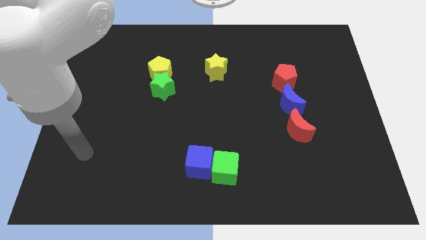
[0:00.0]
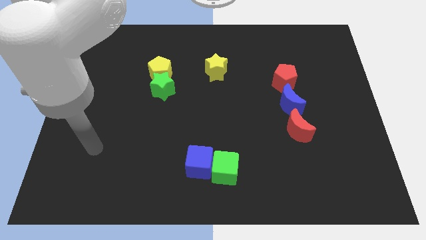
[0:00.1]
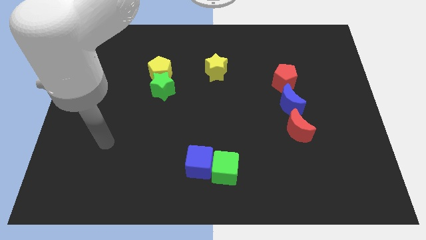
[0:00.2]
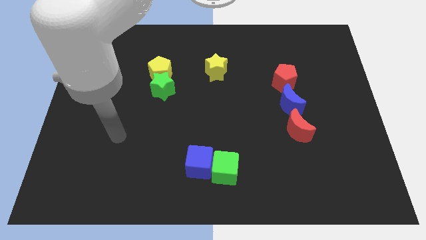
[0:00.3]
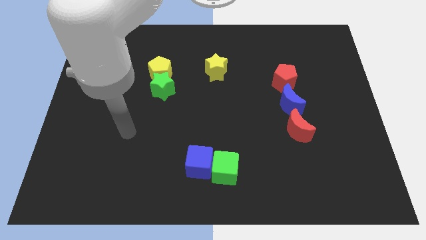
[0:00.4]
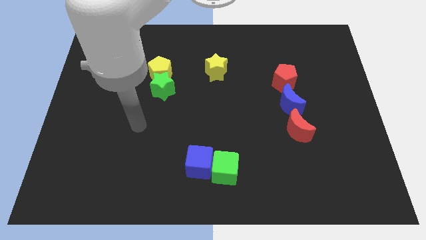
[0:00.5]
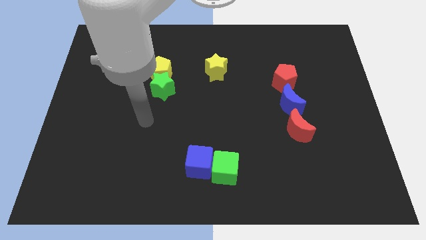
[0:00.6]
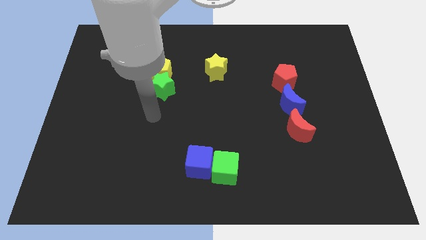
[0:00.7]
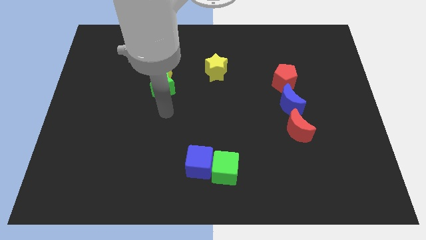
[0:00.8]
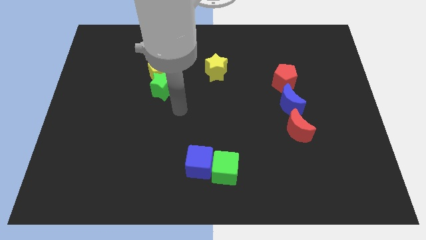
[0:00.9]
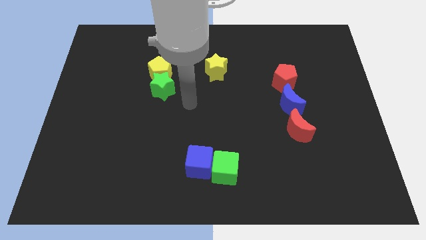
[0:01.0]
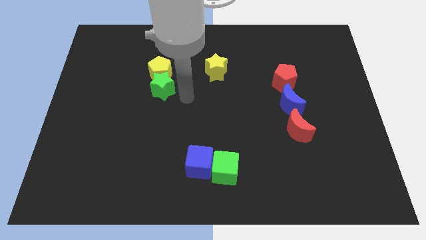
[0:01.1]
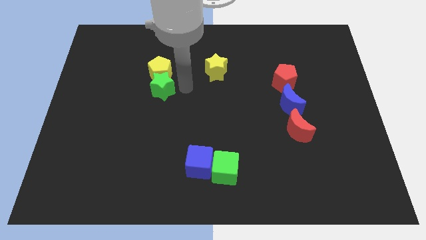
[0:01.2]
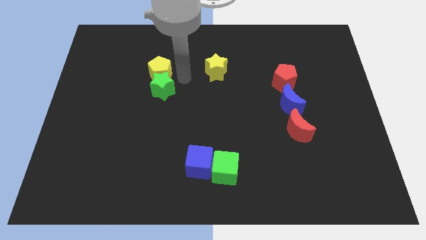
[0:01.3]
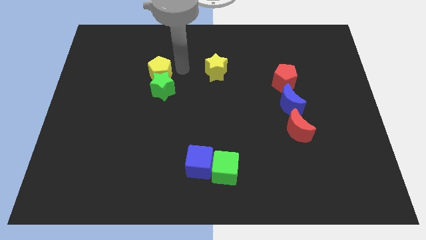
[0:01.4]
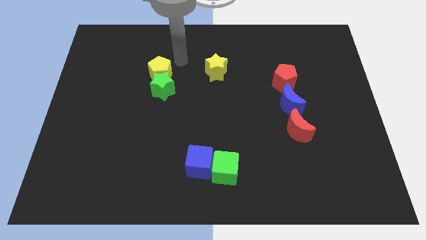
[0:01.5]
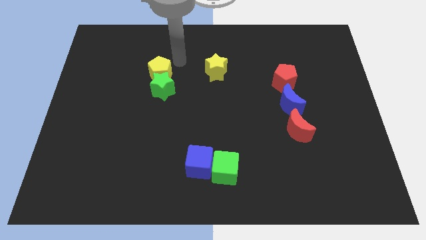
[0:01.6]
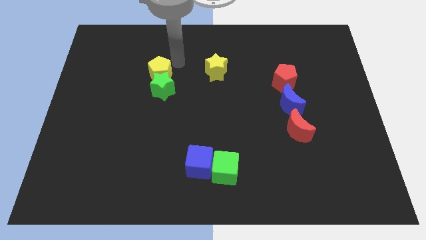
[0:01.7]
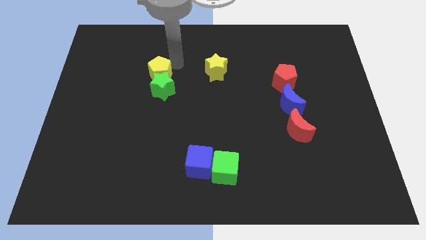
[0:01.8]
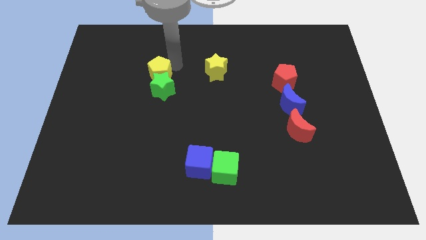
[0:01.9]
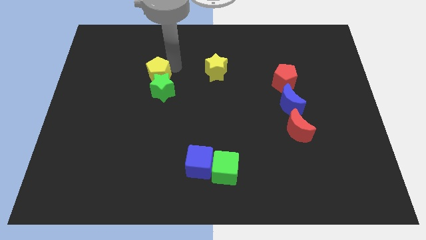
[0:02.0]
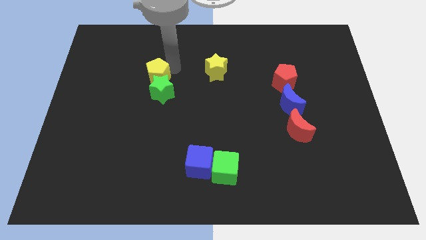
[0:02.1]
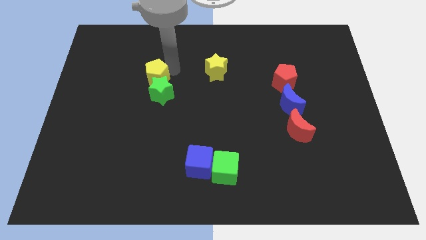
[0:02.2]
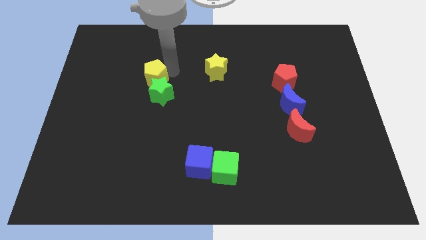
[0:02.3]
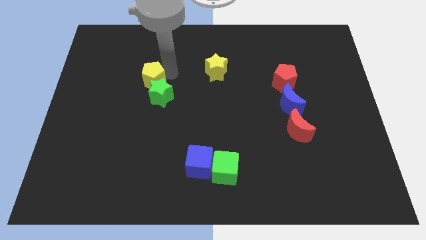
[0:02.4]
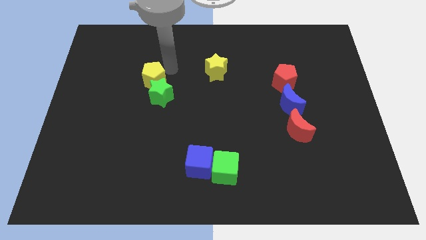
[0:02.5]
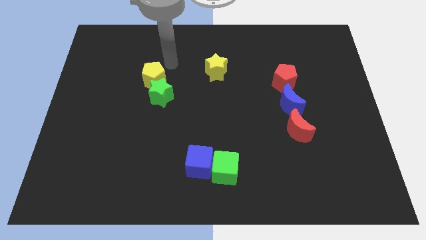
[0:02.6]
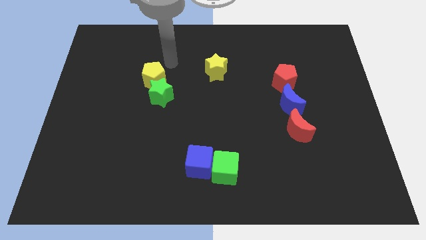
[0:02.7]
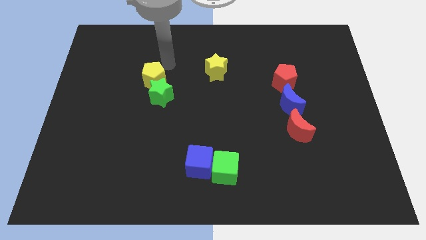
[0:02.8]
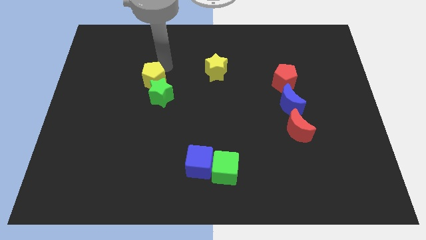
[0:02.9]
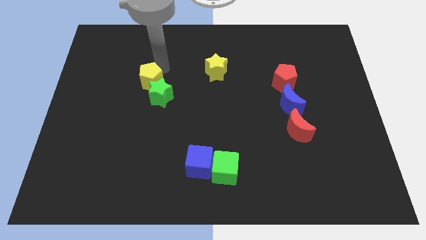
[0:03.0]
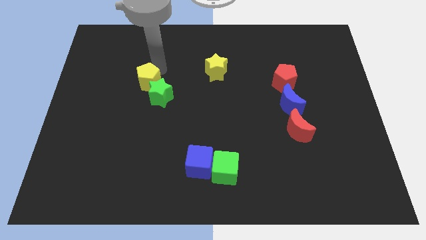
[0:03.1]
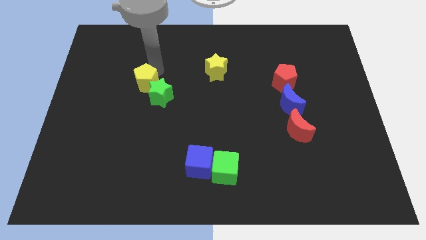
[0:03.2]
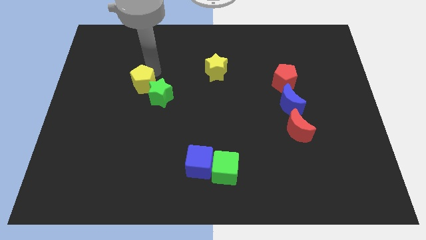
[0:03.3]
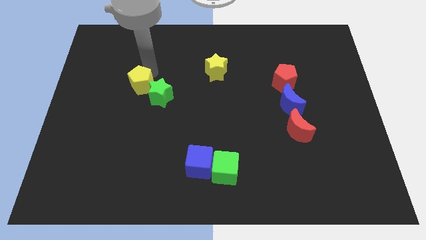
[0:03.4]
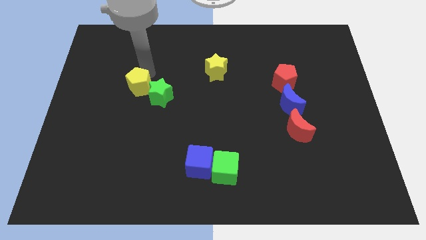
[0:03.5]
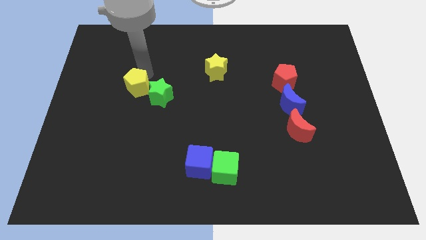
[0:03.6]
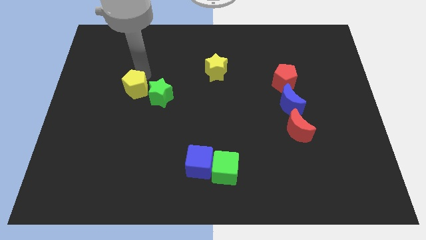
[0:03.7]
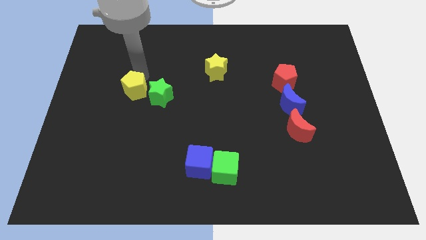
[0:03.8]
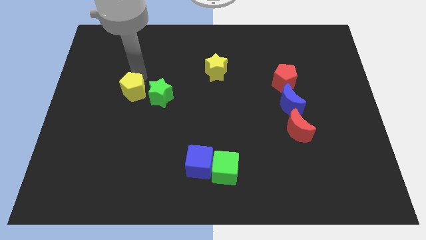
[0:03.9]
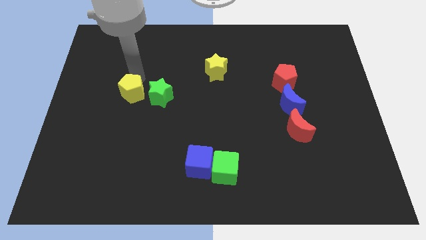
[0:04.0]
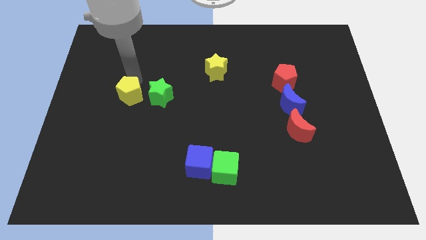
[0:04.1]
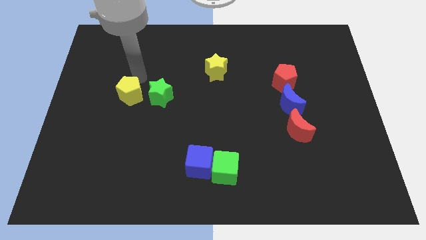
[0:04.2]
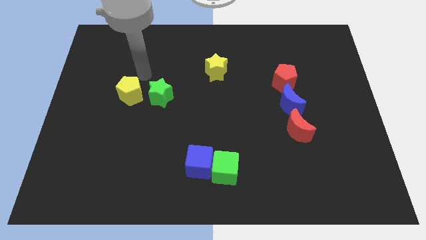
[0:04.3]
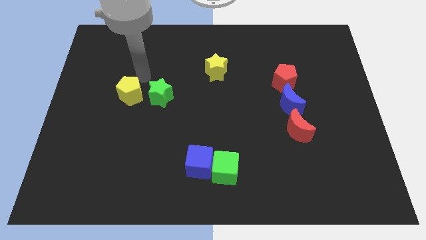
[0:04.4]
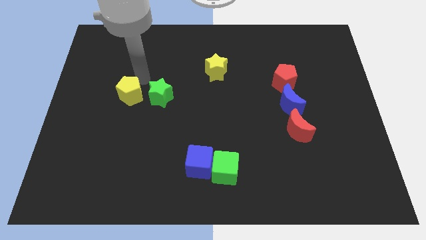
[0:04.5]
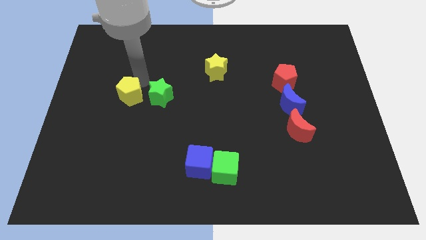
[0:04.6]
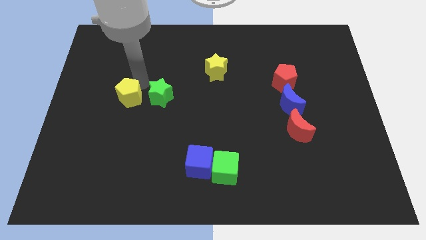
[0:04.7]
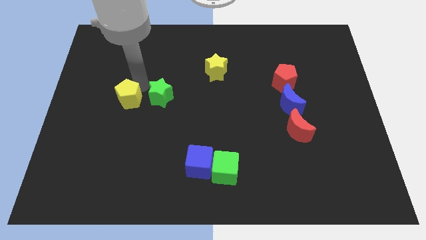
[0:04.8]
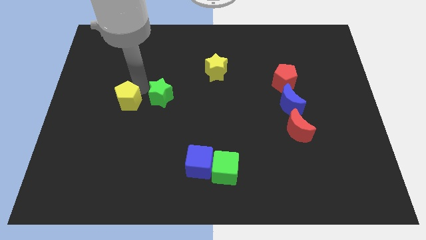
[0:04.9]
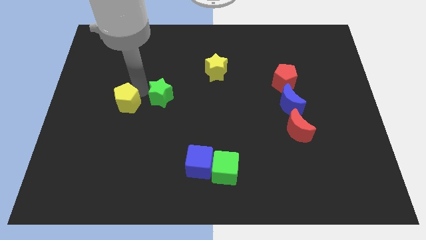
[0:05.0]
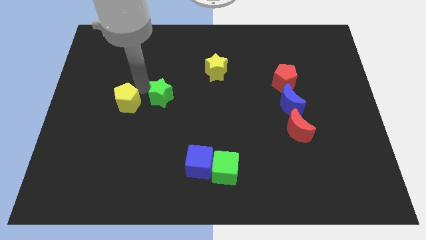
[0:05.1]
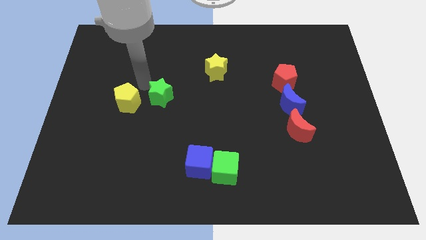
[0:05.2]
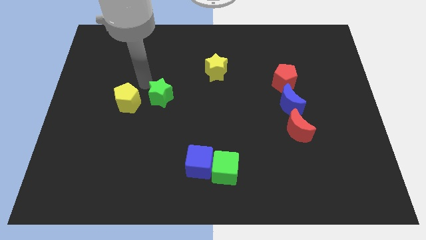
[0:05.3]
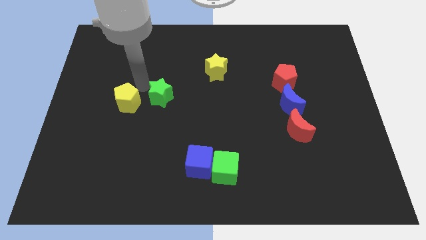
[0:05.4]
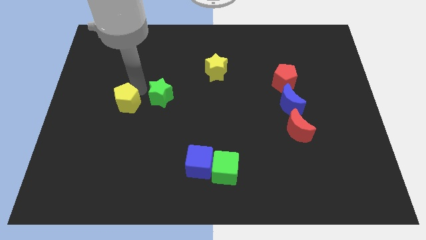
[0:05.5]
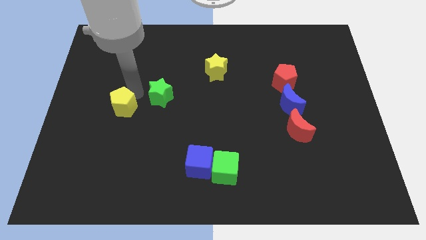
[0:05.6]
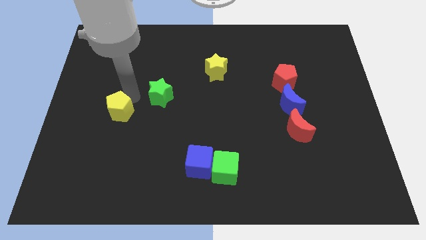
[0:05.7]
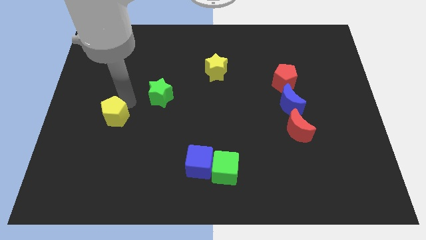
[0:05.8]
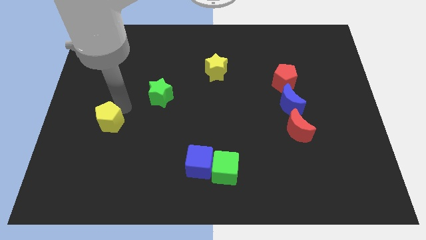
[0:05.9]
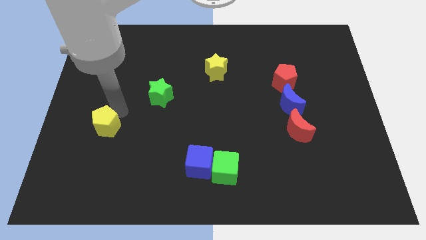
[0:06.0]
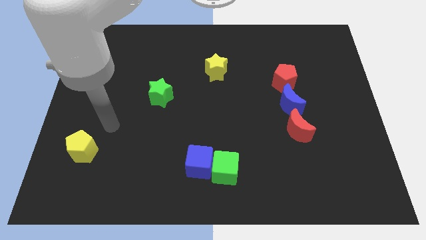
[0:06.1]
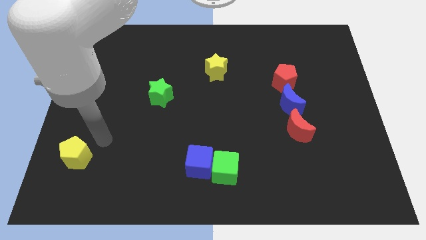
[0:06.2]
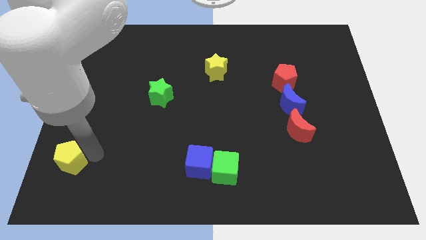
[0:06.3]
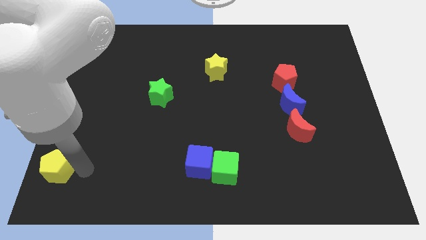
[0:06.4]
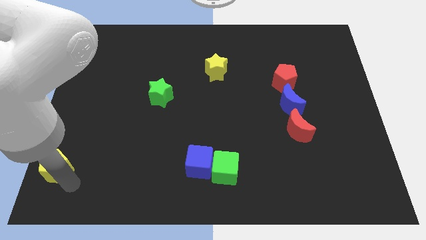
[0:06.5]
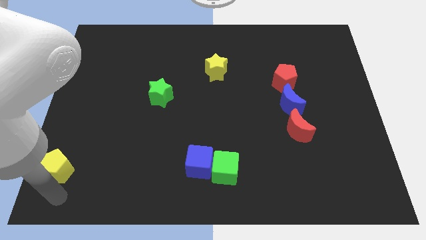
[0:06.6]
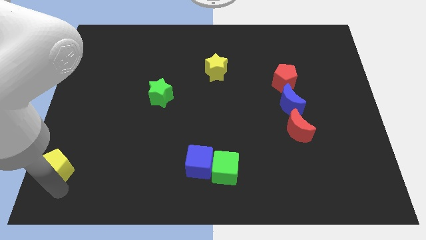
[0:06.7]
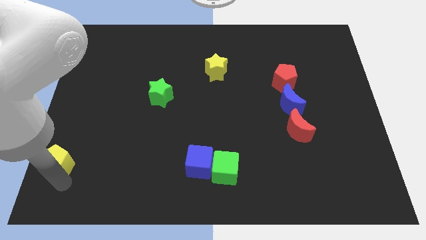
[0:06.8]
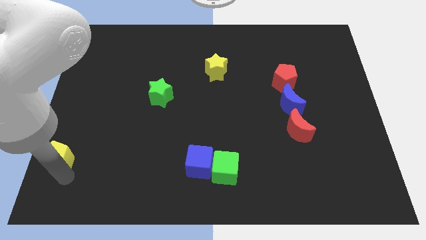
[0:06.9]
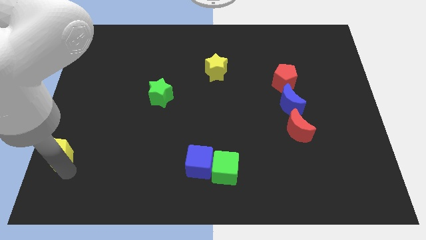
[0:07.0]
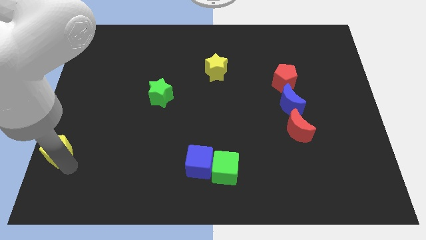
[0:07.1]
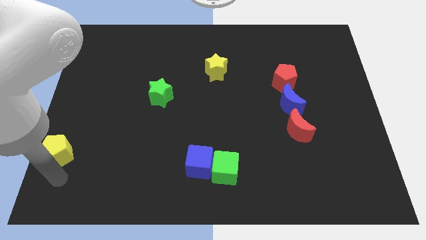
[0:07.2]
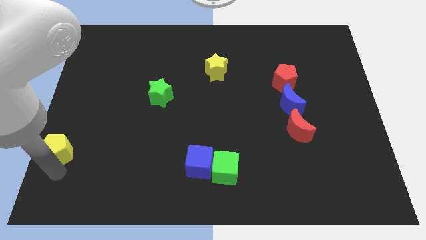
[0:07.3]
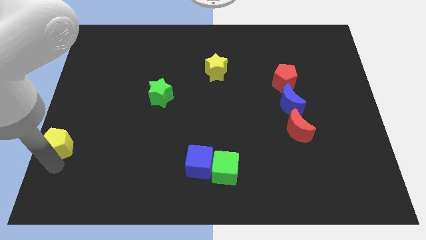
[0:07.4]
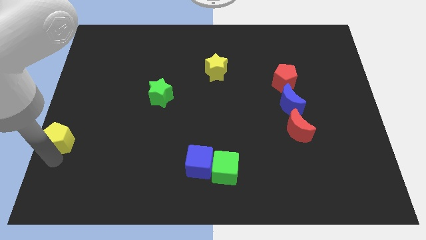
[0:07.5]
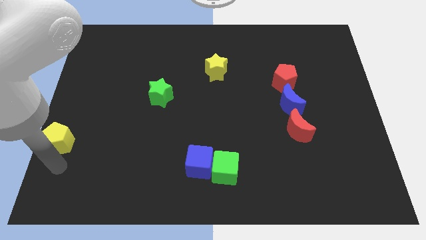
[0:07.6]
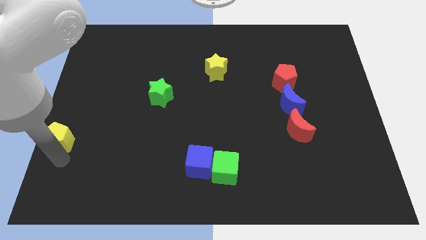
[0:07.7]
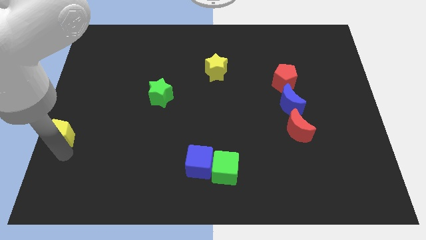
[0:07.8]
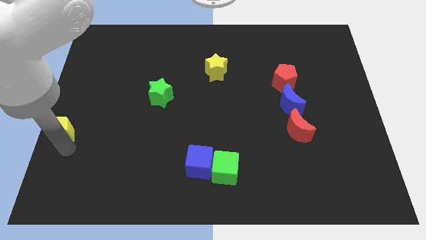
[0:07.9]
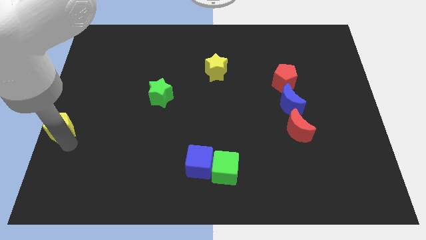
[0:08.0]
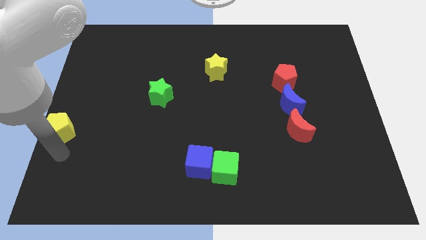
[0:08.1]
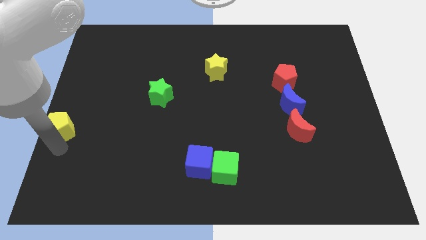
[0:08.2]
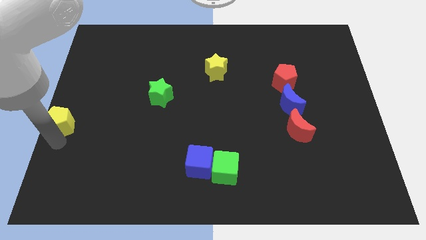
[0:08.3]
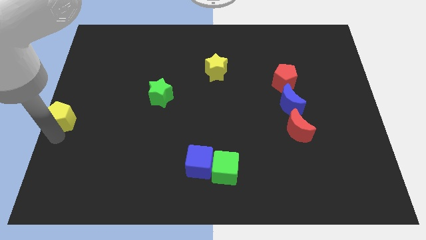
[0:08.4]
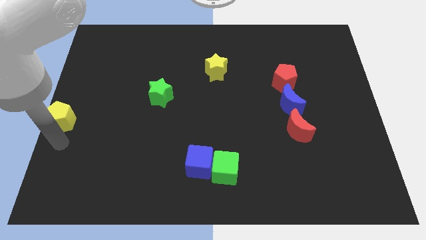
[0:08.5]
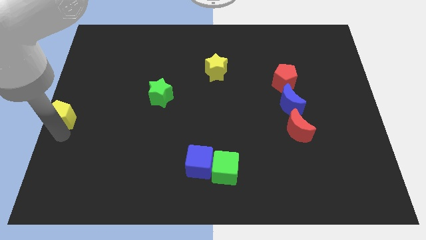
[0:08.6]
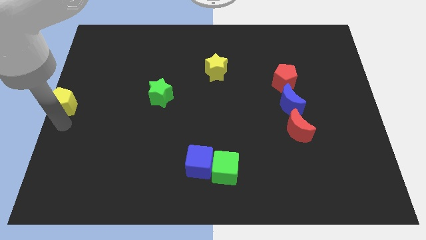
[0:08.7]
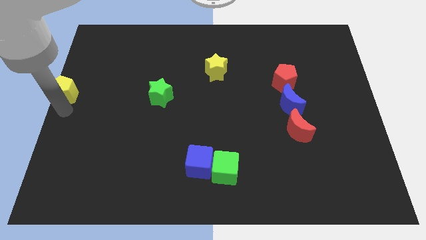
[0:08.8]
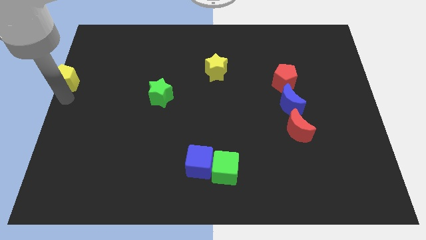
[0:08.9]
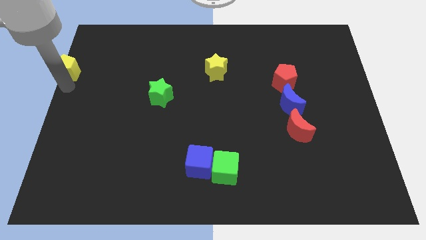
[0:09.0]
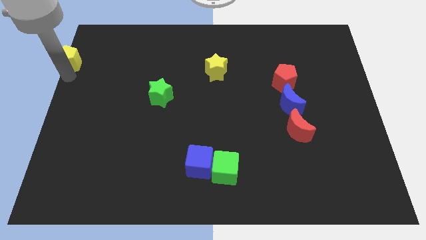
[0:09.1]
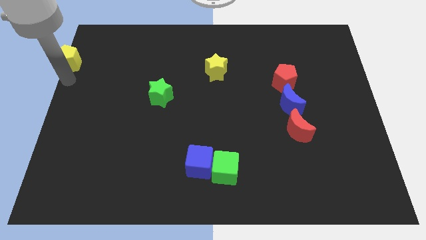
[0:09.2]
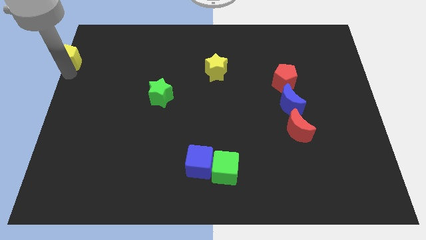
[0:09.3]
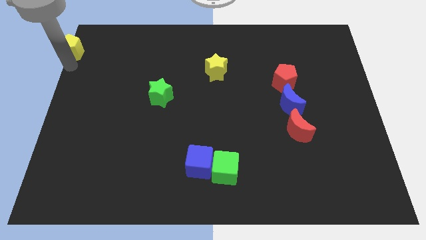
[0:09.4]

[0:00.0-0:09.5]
put the yellow pentagon to the top left of the board
